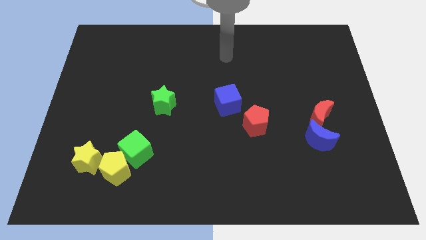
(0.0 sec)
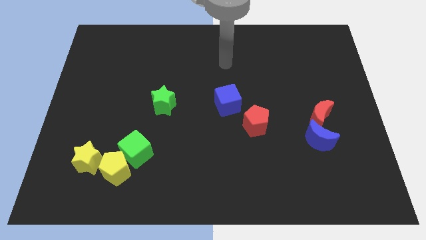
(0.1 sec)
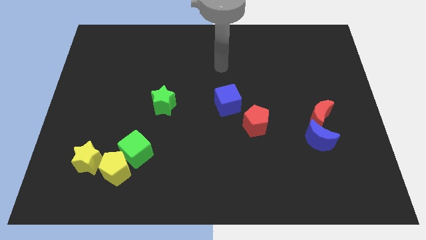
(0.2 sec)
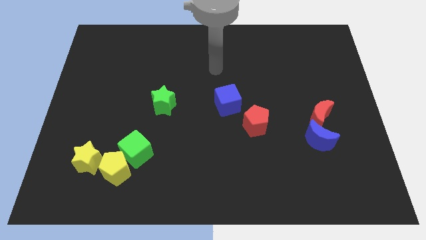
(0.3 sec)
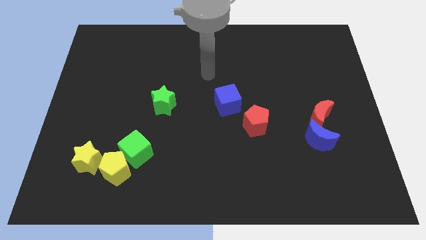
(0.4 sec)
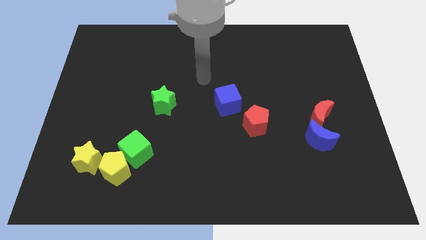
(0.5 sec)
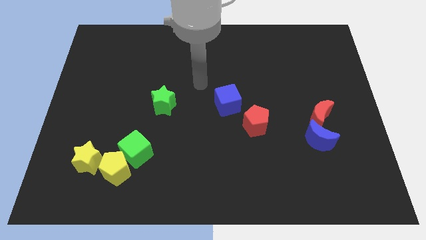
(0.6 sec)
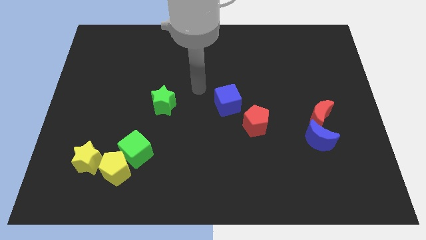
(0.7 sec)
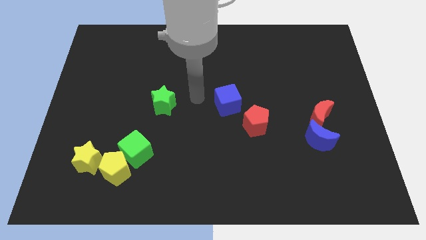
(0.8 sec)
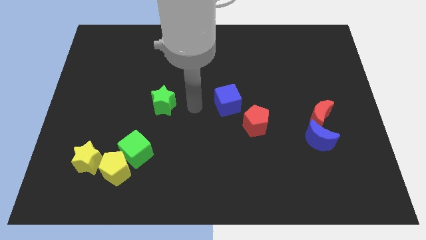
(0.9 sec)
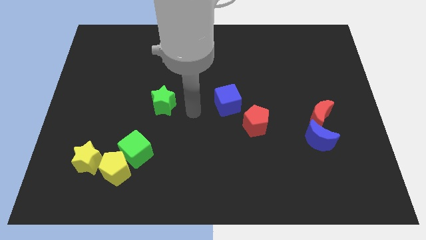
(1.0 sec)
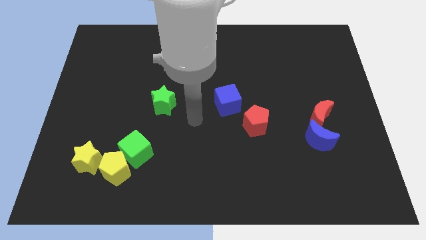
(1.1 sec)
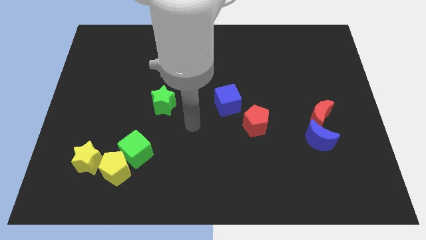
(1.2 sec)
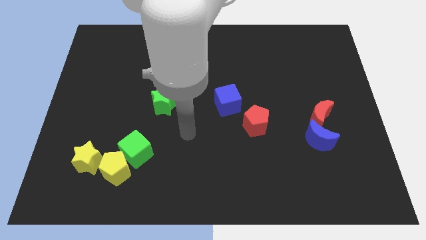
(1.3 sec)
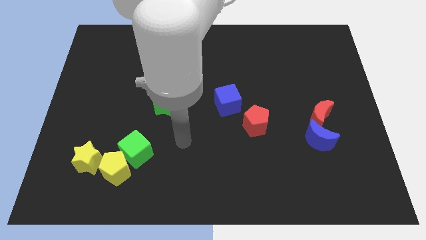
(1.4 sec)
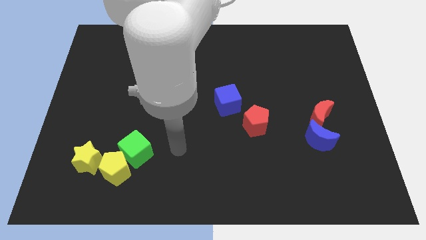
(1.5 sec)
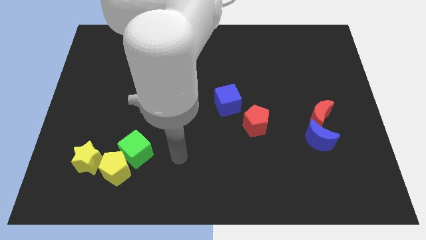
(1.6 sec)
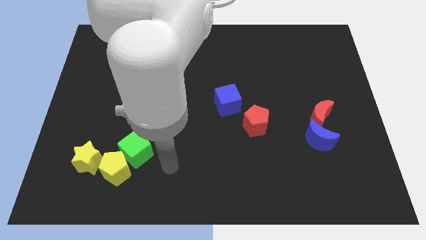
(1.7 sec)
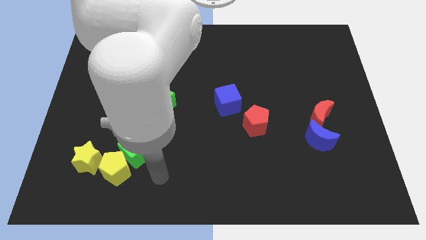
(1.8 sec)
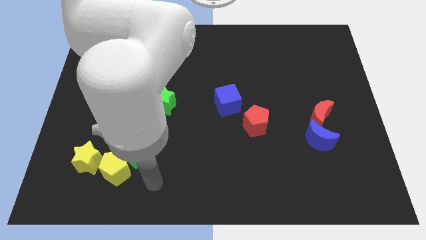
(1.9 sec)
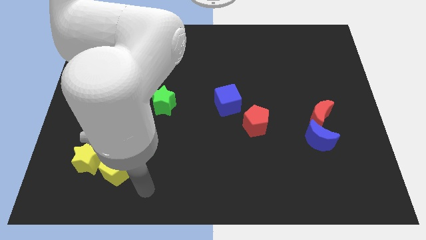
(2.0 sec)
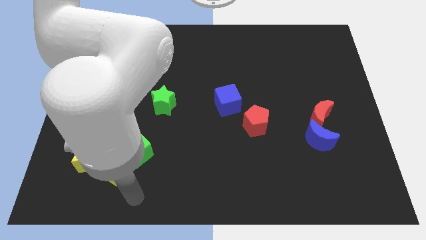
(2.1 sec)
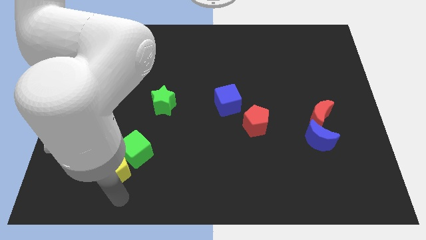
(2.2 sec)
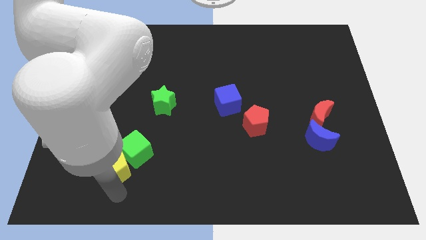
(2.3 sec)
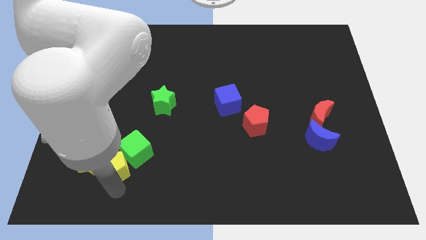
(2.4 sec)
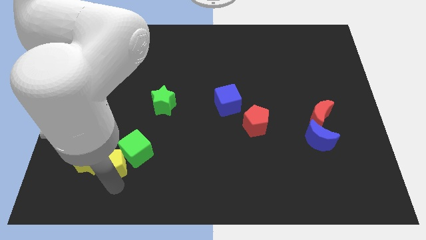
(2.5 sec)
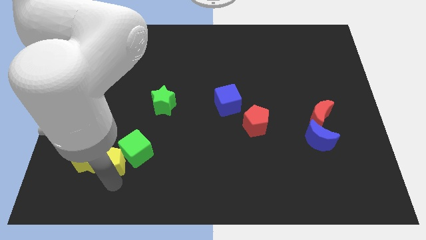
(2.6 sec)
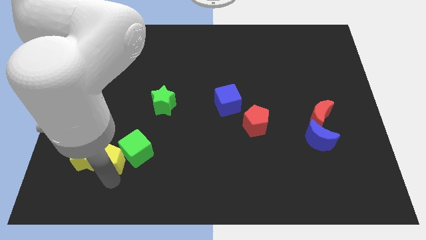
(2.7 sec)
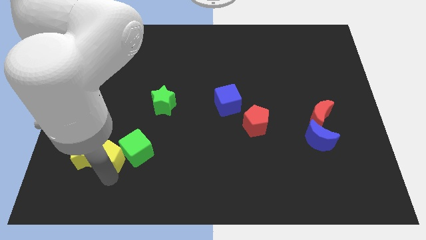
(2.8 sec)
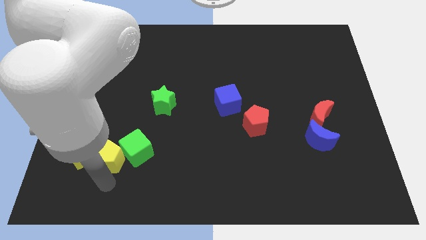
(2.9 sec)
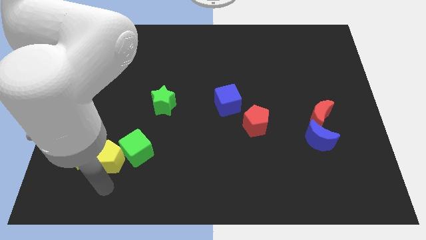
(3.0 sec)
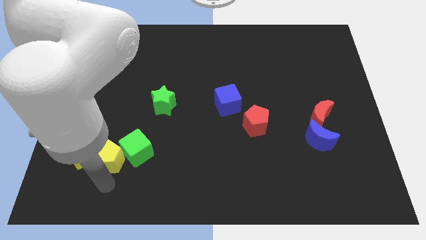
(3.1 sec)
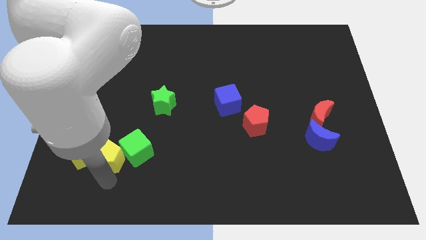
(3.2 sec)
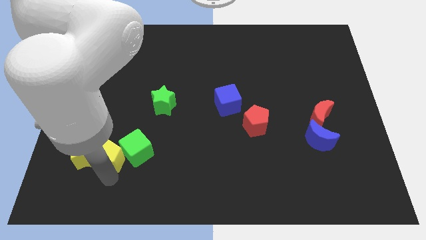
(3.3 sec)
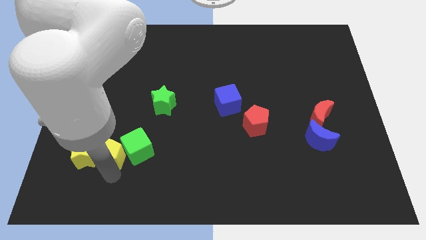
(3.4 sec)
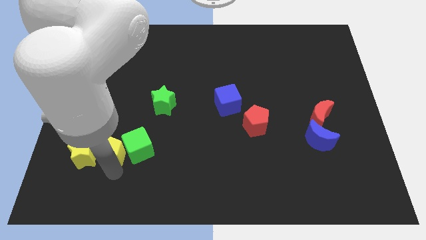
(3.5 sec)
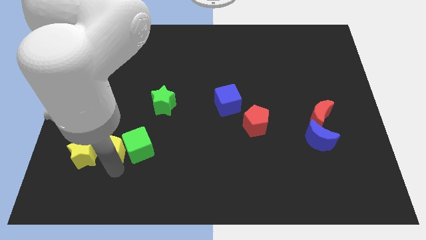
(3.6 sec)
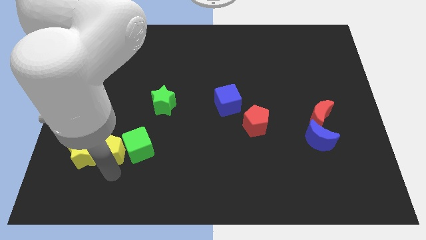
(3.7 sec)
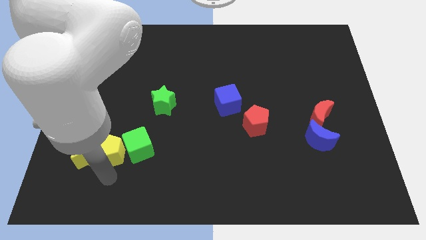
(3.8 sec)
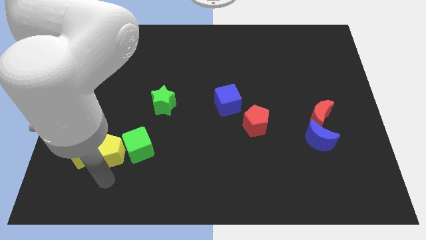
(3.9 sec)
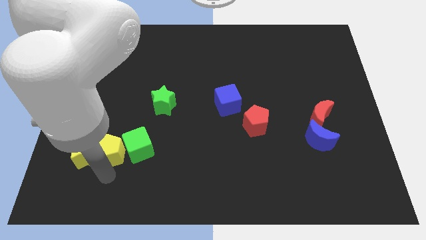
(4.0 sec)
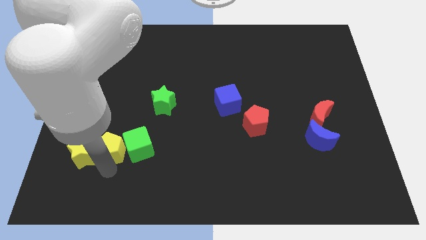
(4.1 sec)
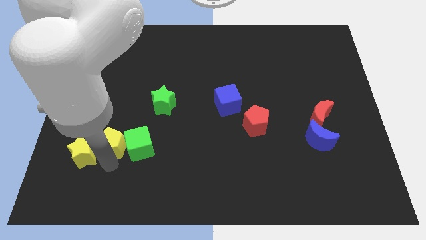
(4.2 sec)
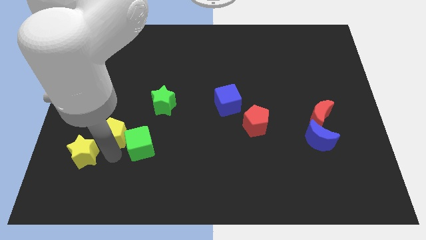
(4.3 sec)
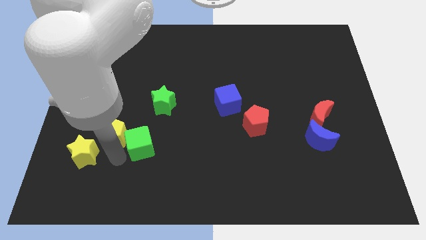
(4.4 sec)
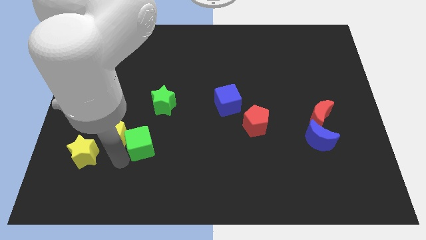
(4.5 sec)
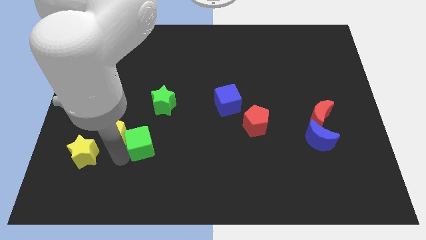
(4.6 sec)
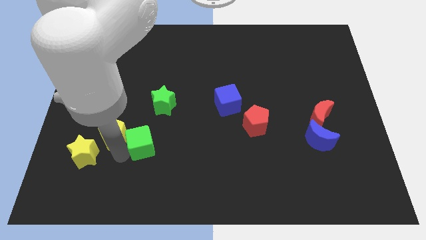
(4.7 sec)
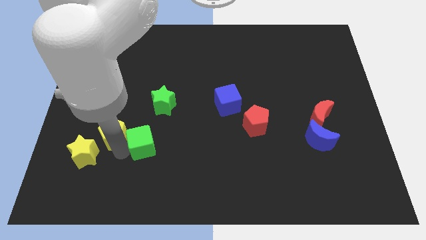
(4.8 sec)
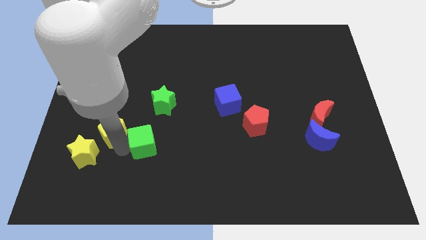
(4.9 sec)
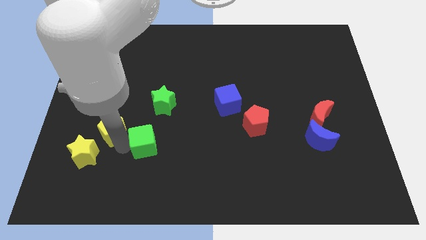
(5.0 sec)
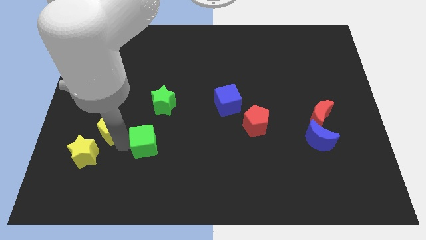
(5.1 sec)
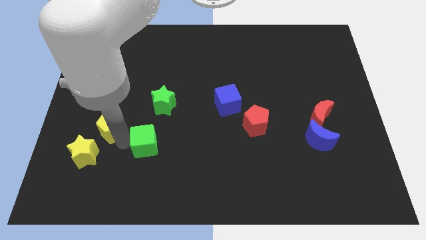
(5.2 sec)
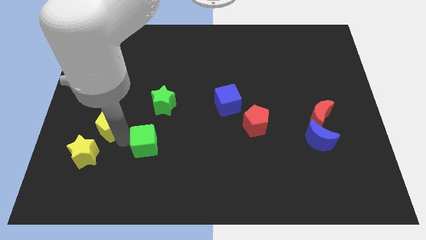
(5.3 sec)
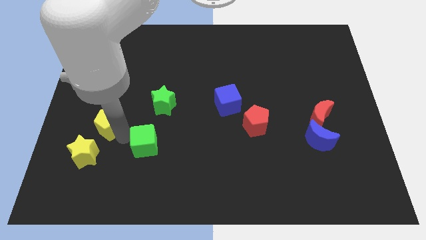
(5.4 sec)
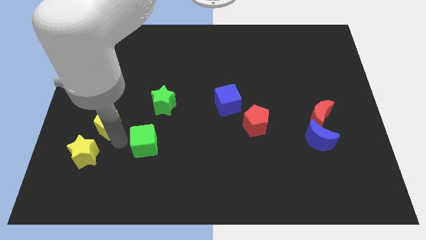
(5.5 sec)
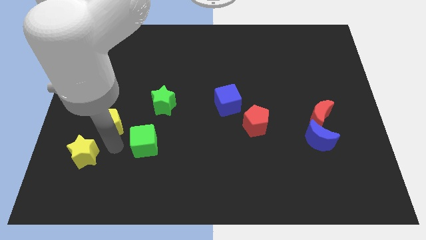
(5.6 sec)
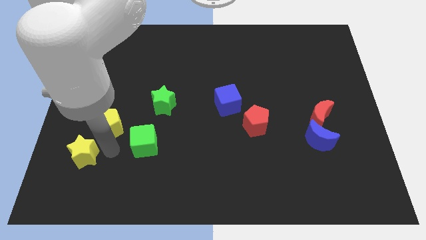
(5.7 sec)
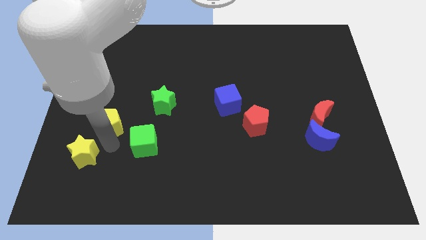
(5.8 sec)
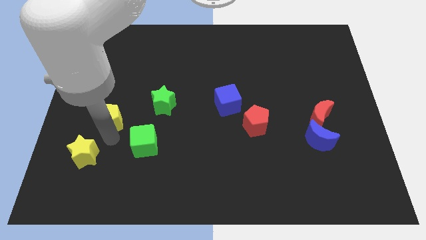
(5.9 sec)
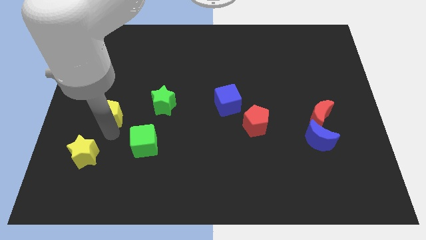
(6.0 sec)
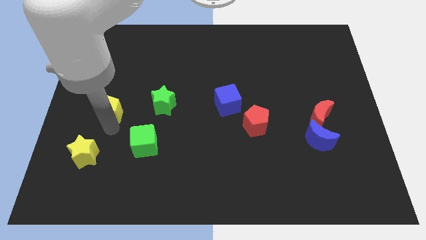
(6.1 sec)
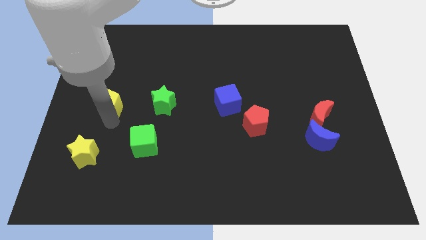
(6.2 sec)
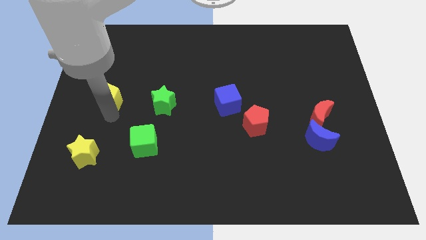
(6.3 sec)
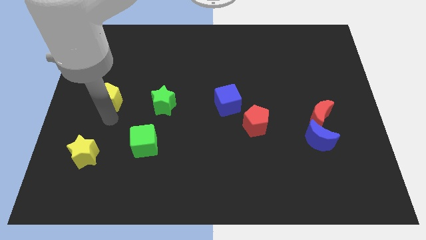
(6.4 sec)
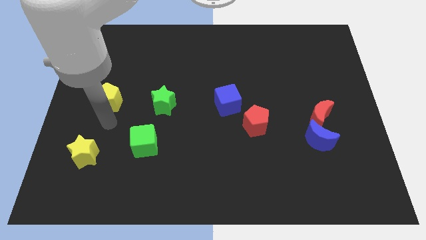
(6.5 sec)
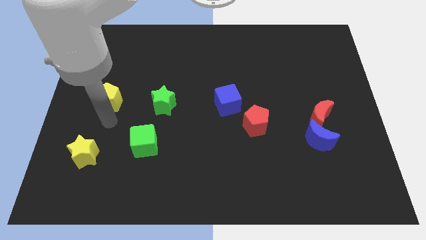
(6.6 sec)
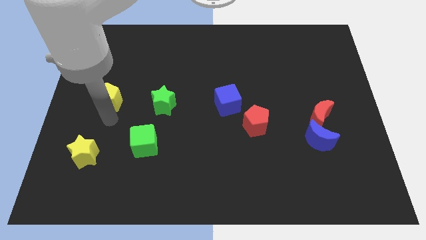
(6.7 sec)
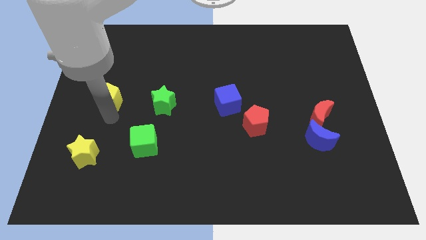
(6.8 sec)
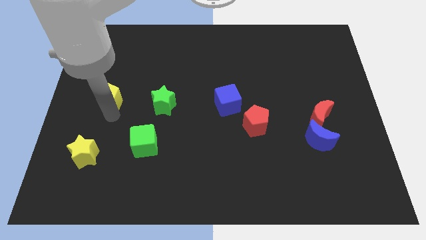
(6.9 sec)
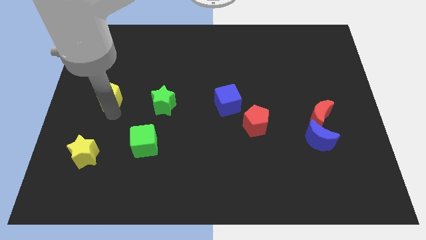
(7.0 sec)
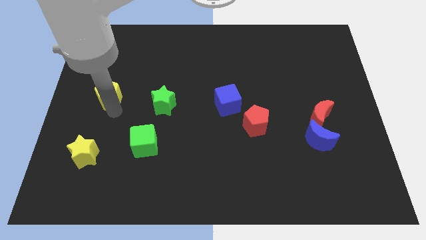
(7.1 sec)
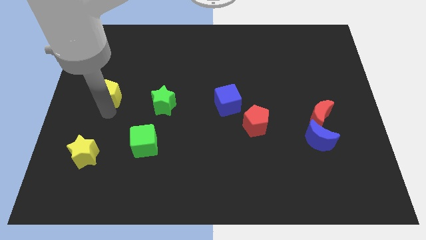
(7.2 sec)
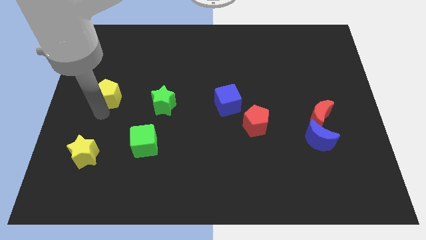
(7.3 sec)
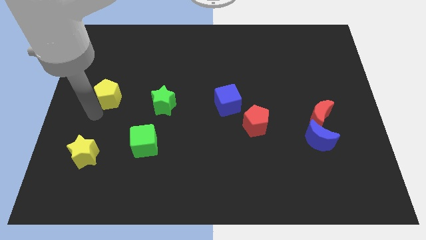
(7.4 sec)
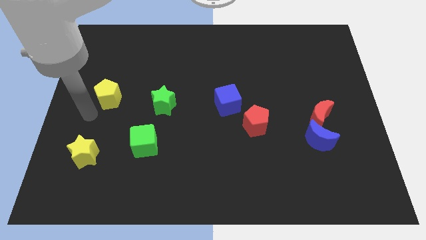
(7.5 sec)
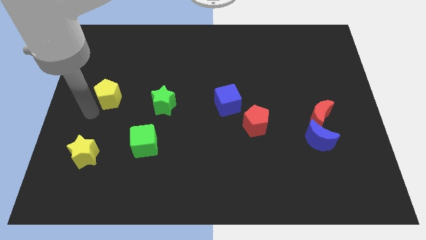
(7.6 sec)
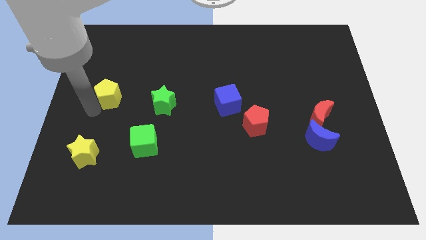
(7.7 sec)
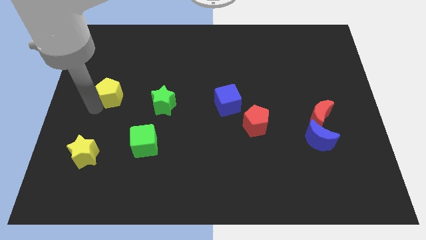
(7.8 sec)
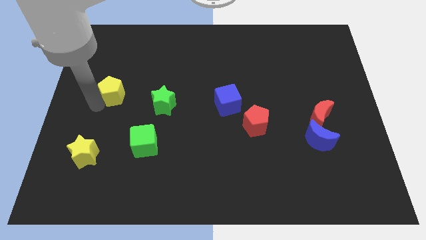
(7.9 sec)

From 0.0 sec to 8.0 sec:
slide the yellow pentagon up
